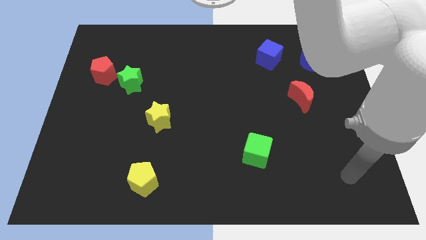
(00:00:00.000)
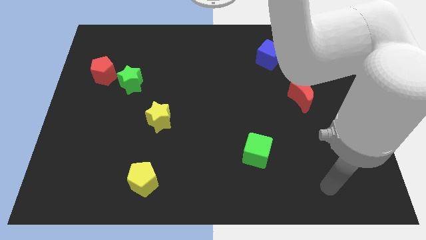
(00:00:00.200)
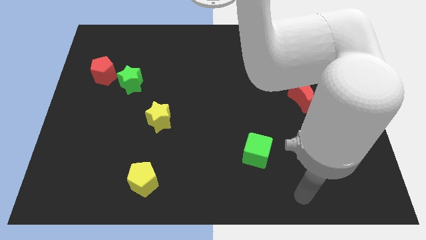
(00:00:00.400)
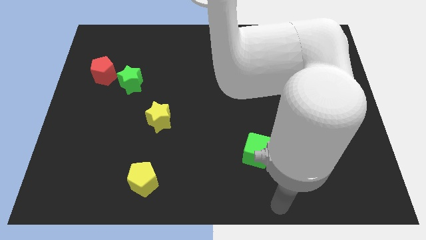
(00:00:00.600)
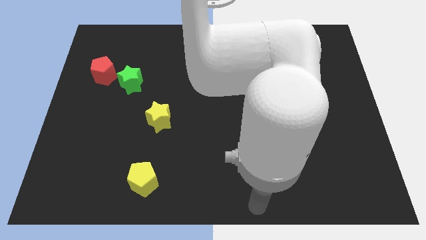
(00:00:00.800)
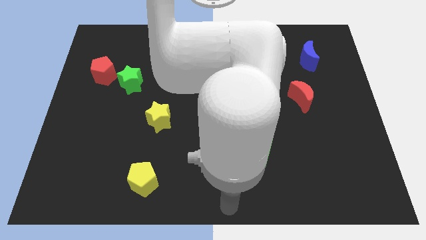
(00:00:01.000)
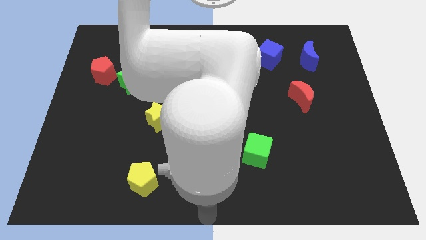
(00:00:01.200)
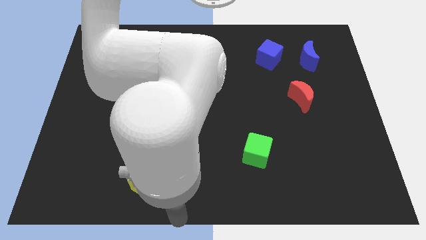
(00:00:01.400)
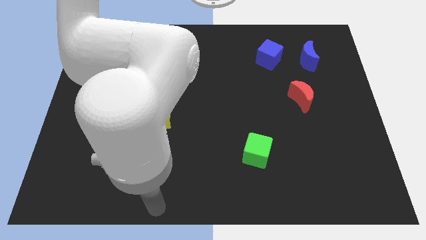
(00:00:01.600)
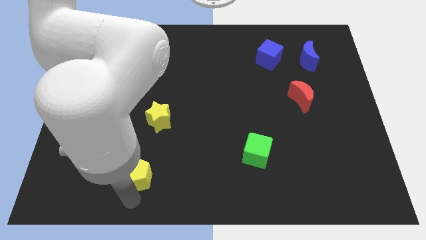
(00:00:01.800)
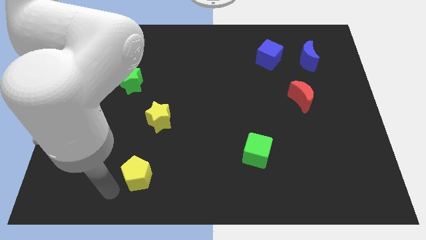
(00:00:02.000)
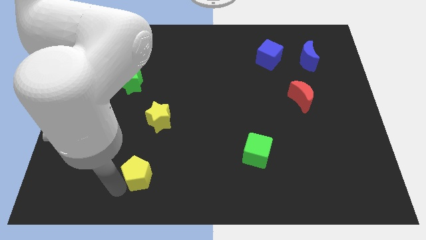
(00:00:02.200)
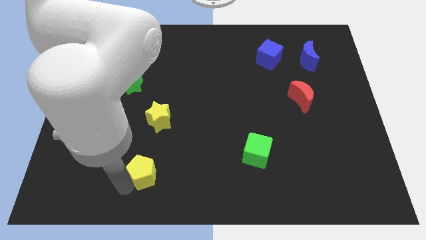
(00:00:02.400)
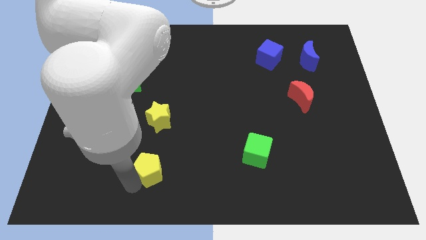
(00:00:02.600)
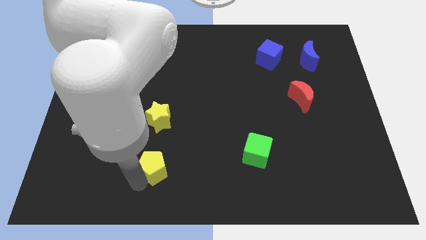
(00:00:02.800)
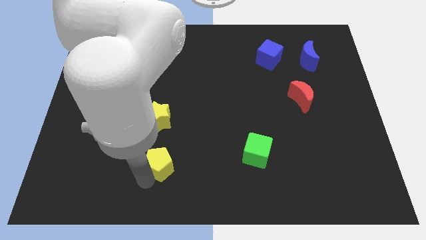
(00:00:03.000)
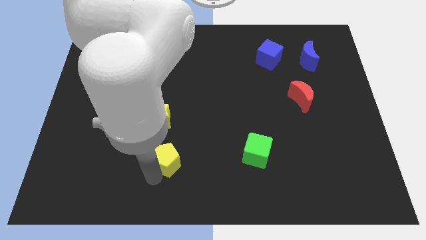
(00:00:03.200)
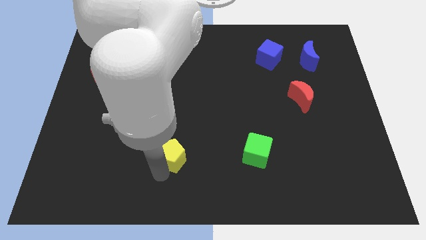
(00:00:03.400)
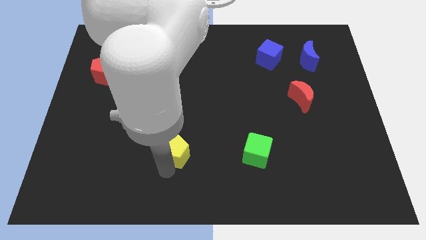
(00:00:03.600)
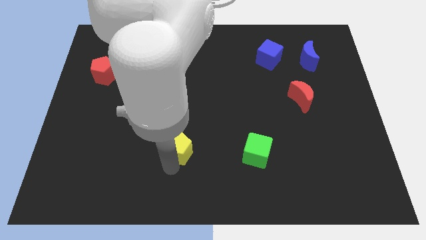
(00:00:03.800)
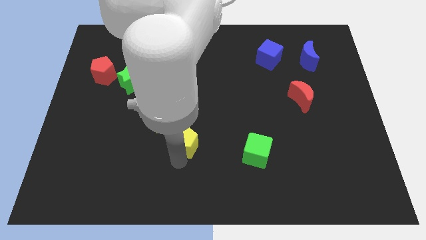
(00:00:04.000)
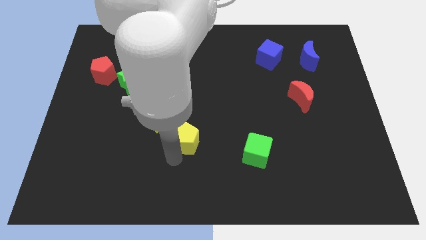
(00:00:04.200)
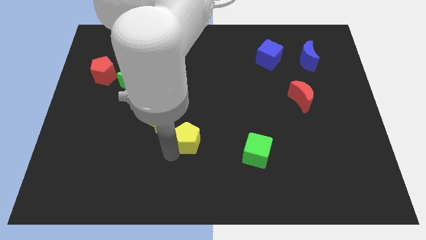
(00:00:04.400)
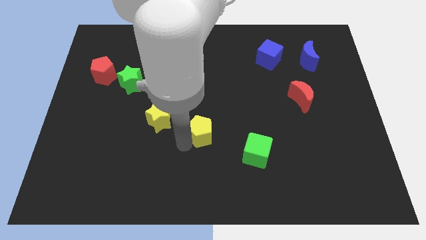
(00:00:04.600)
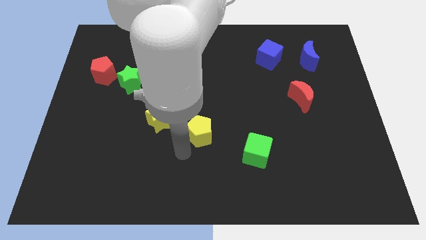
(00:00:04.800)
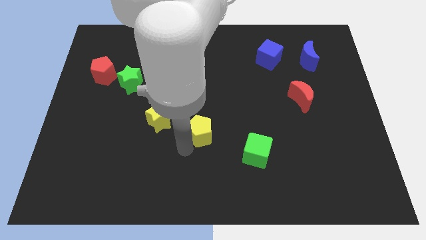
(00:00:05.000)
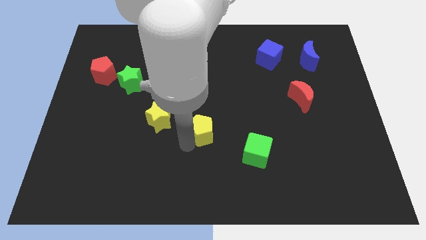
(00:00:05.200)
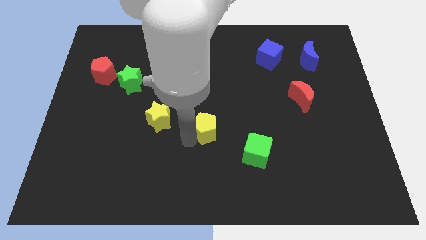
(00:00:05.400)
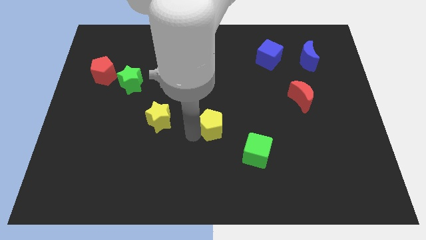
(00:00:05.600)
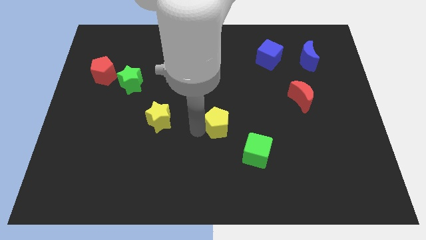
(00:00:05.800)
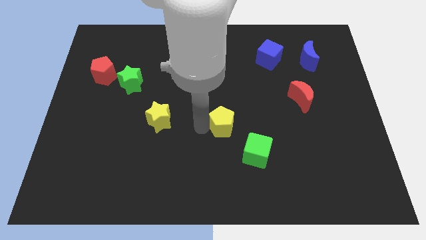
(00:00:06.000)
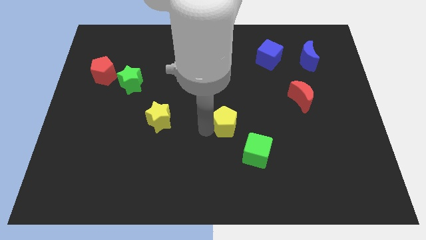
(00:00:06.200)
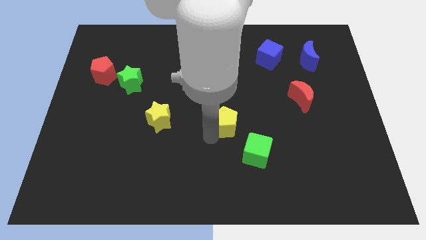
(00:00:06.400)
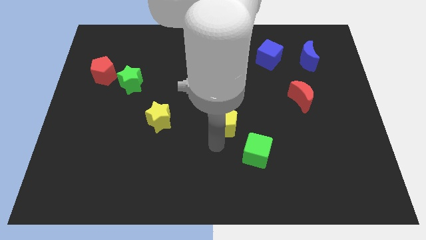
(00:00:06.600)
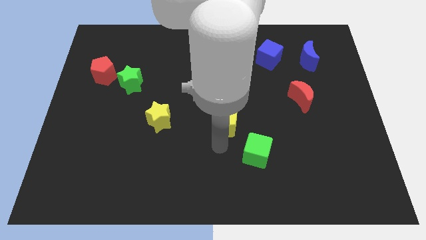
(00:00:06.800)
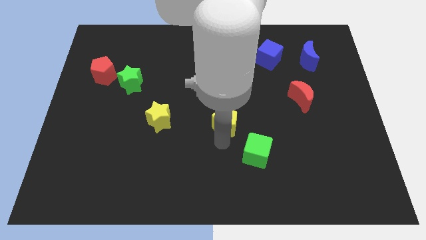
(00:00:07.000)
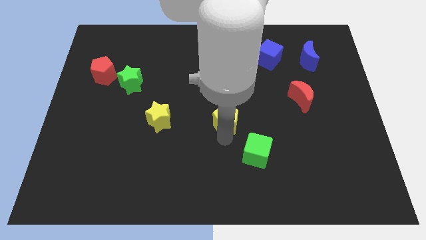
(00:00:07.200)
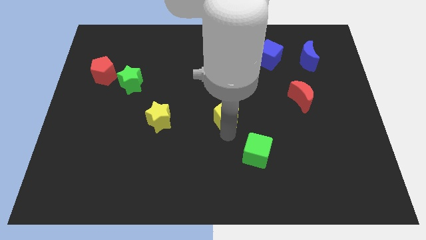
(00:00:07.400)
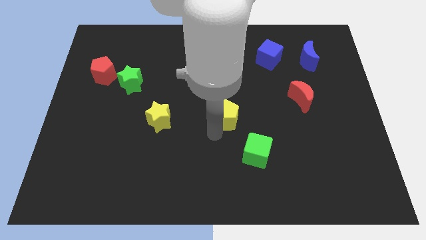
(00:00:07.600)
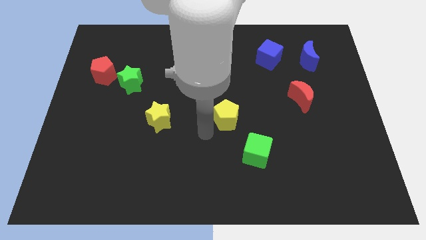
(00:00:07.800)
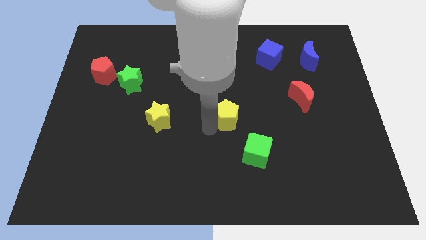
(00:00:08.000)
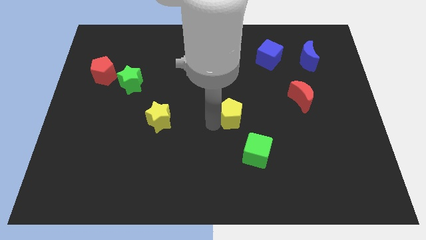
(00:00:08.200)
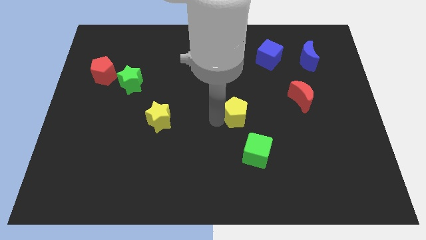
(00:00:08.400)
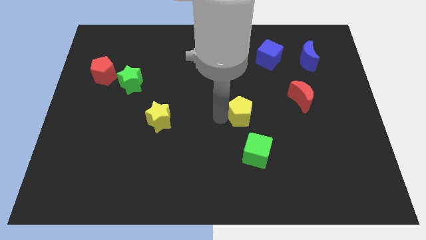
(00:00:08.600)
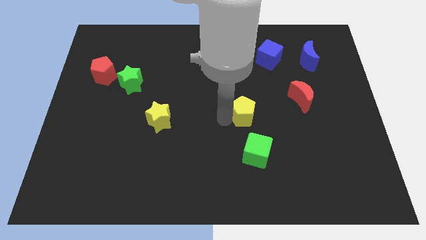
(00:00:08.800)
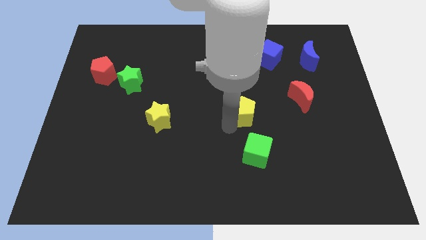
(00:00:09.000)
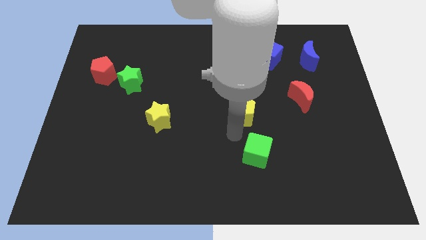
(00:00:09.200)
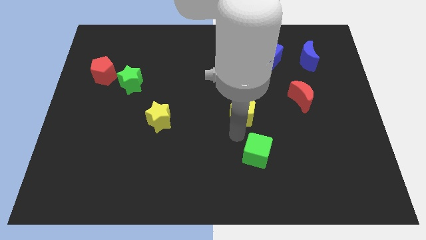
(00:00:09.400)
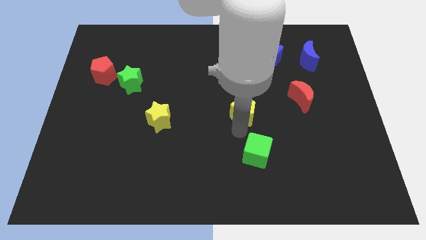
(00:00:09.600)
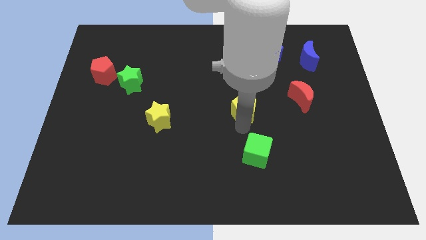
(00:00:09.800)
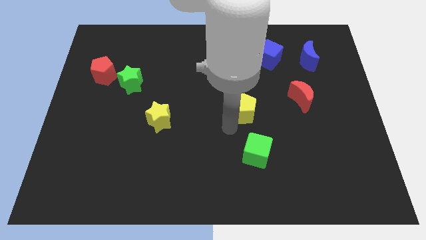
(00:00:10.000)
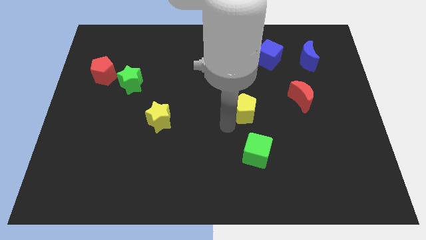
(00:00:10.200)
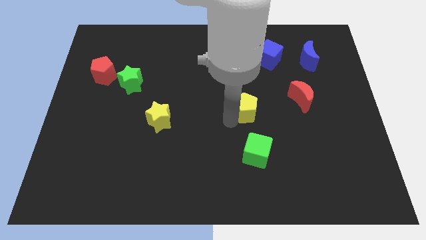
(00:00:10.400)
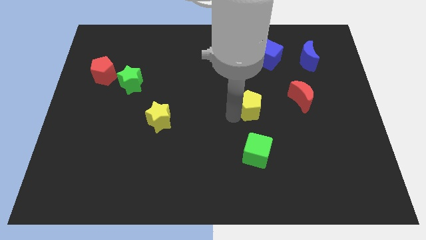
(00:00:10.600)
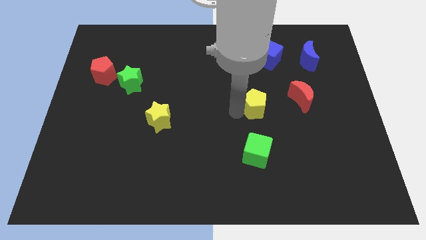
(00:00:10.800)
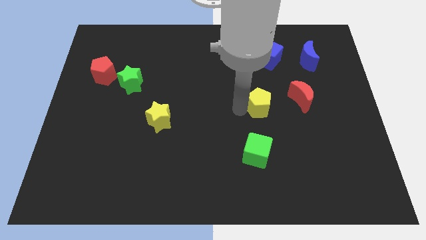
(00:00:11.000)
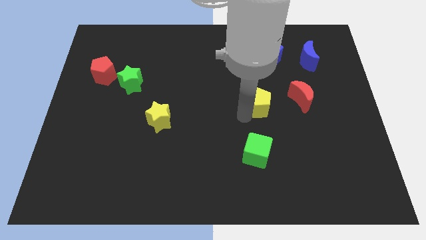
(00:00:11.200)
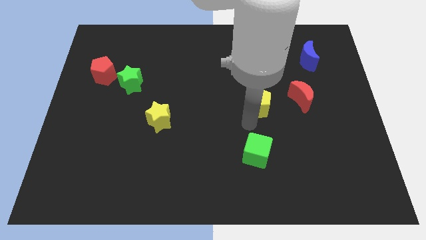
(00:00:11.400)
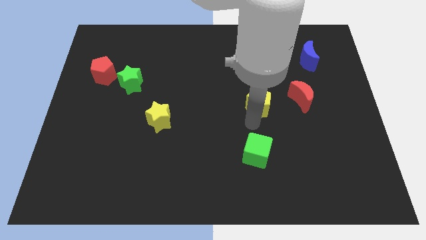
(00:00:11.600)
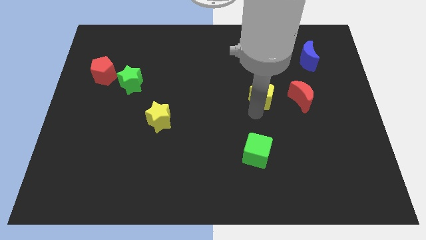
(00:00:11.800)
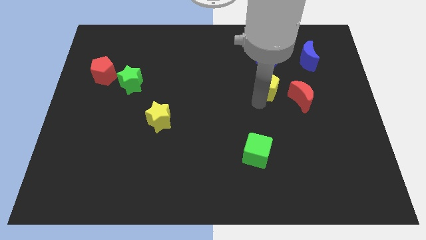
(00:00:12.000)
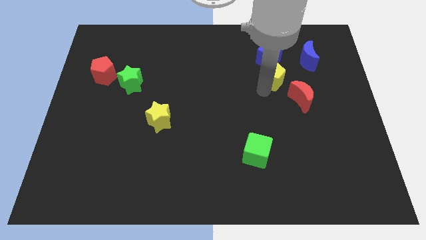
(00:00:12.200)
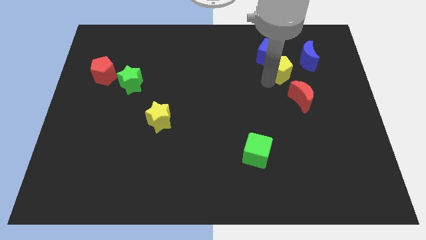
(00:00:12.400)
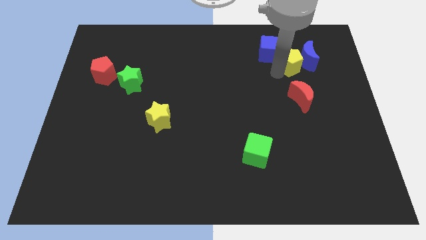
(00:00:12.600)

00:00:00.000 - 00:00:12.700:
move the yellow pentagon towards the blue moon
